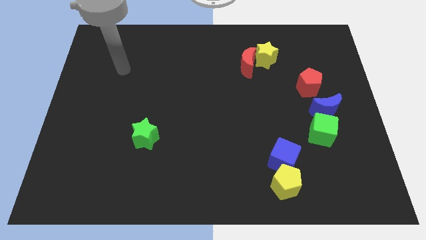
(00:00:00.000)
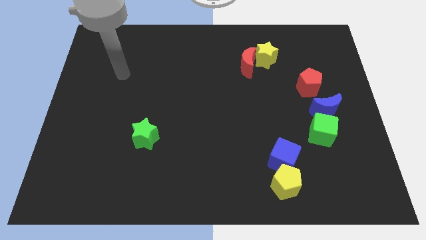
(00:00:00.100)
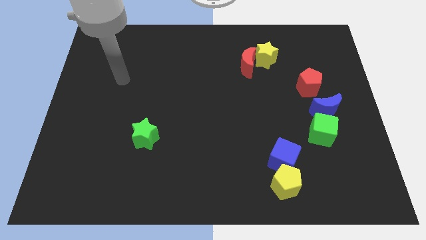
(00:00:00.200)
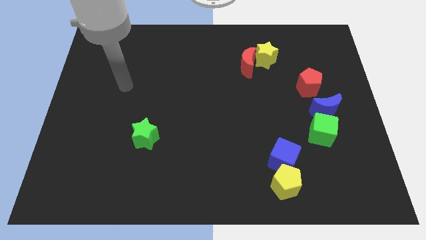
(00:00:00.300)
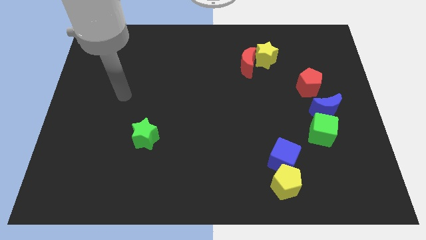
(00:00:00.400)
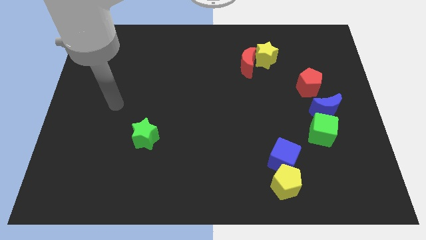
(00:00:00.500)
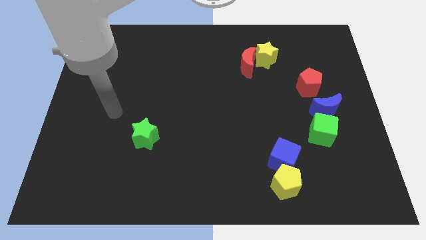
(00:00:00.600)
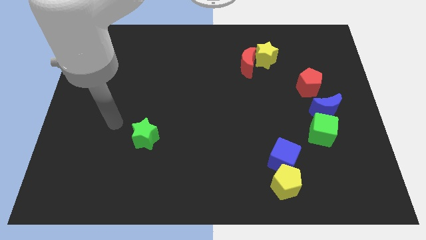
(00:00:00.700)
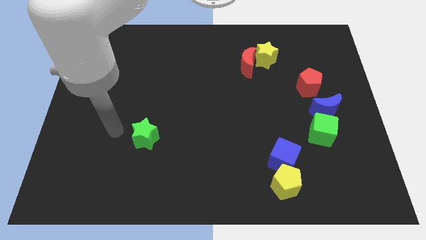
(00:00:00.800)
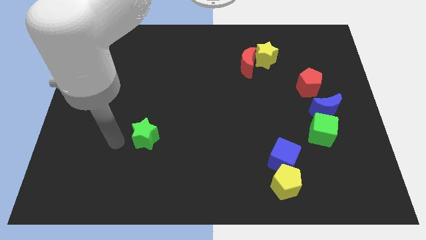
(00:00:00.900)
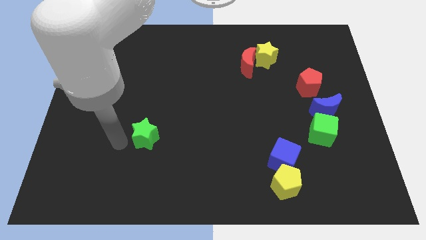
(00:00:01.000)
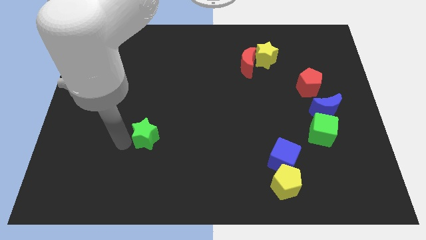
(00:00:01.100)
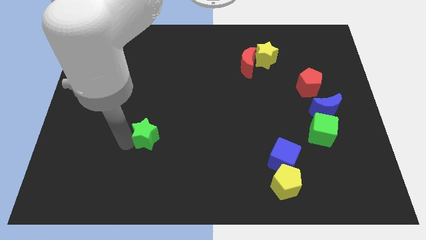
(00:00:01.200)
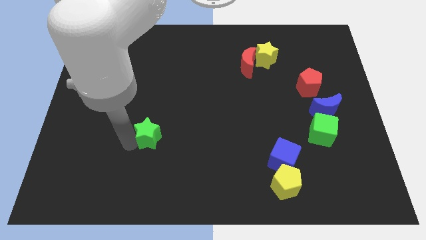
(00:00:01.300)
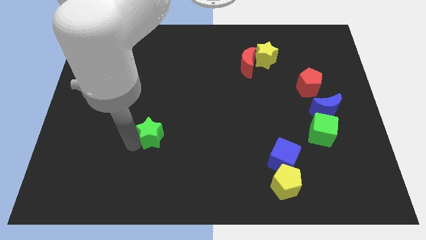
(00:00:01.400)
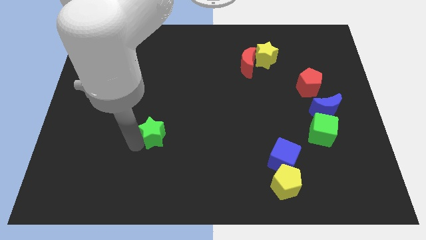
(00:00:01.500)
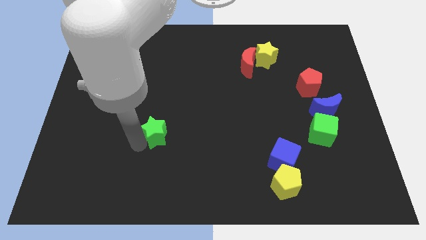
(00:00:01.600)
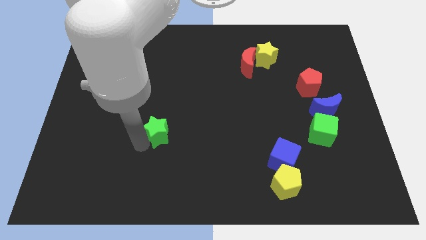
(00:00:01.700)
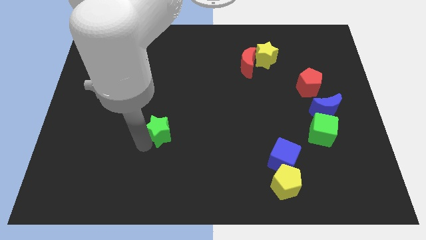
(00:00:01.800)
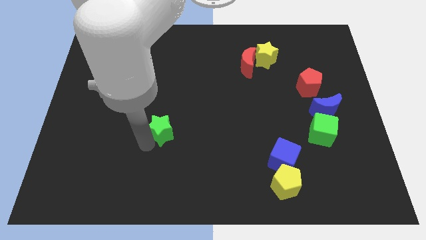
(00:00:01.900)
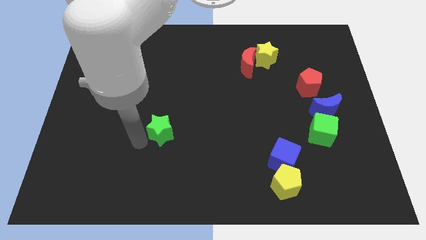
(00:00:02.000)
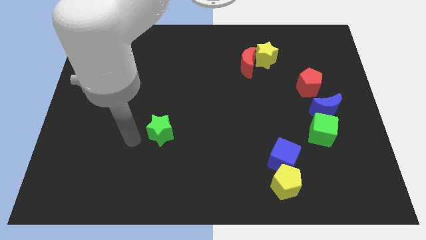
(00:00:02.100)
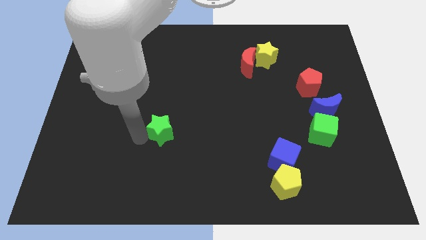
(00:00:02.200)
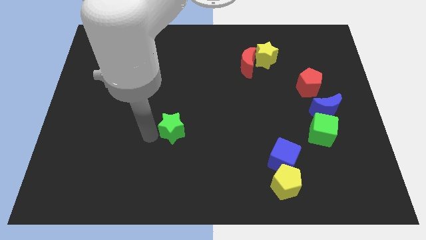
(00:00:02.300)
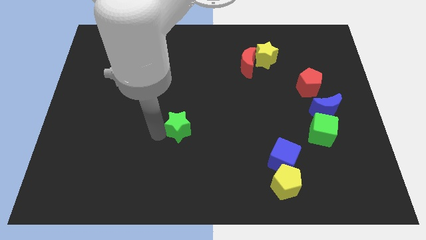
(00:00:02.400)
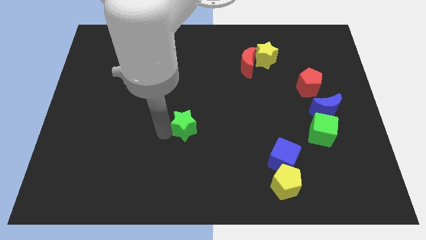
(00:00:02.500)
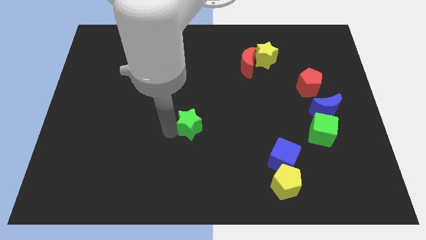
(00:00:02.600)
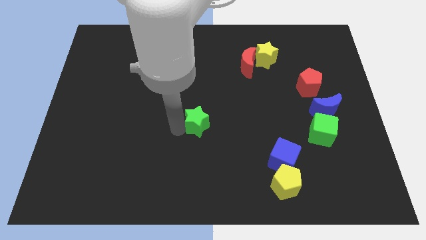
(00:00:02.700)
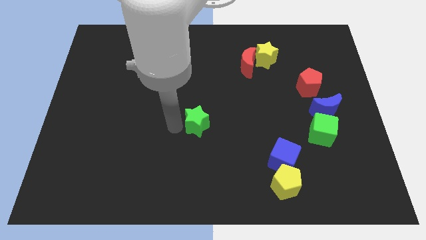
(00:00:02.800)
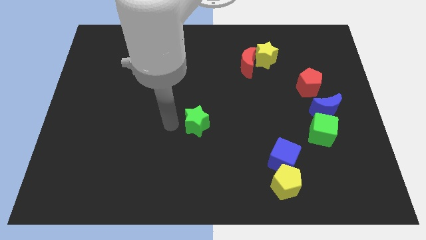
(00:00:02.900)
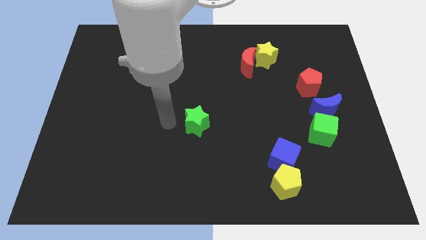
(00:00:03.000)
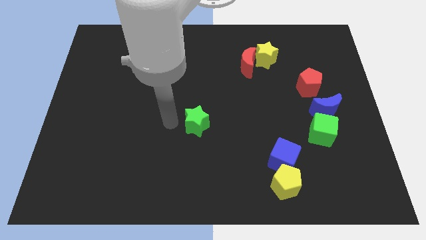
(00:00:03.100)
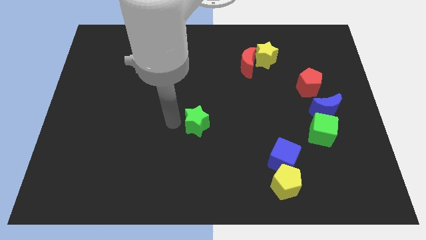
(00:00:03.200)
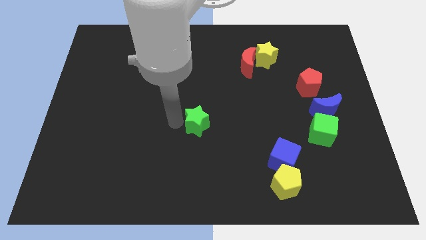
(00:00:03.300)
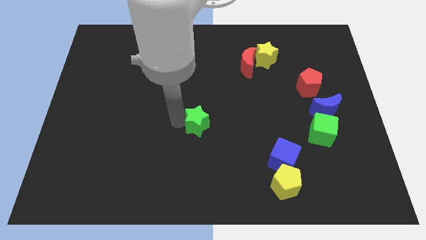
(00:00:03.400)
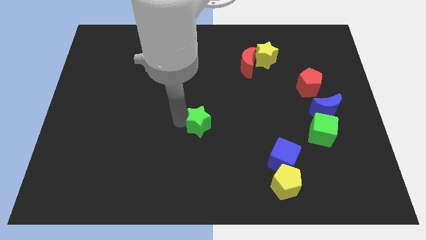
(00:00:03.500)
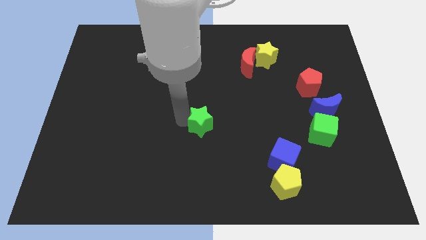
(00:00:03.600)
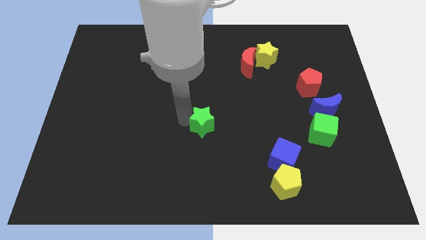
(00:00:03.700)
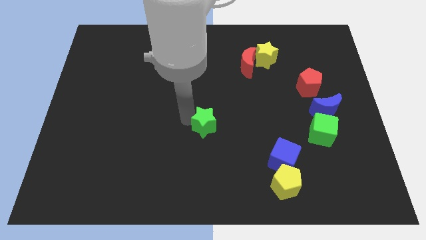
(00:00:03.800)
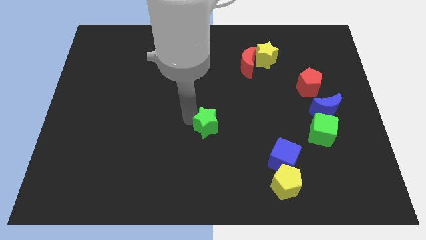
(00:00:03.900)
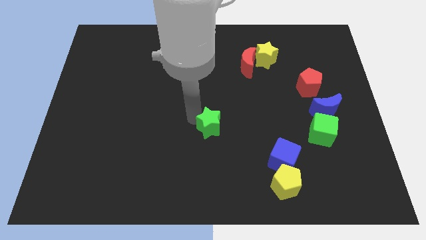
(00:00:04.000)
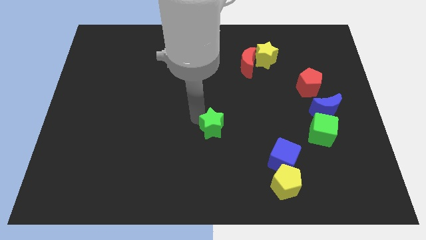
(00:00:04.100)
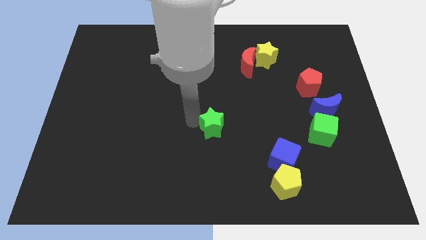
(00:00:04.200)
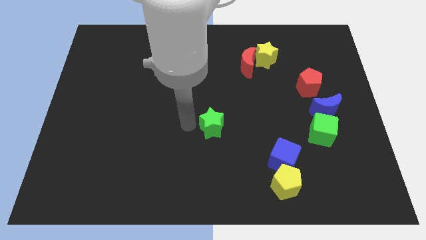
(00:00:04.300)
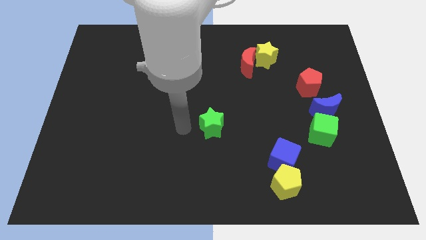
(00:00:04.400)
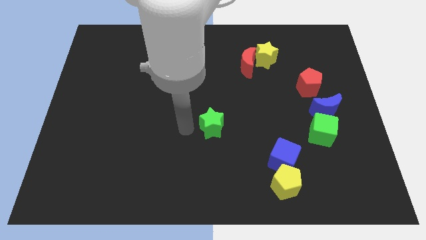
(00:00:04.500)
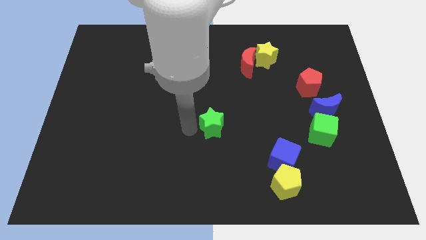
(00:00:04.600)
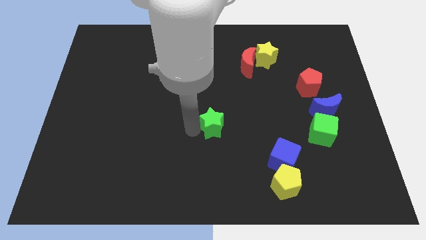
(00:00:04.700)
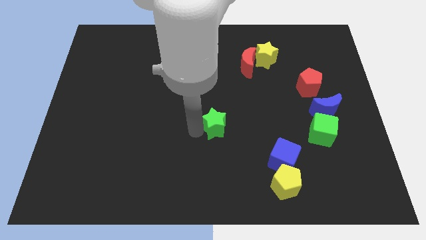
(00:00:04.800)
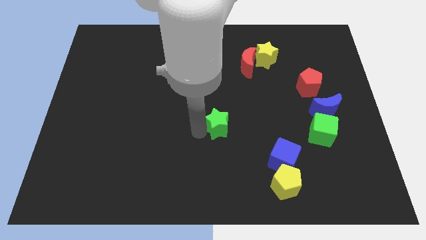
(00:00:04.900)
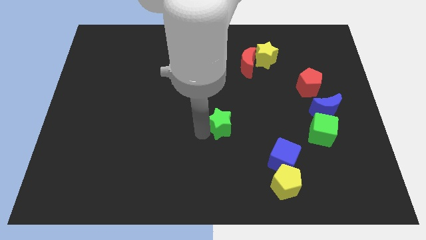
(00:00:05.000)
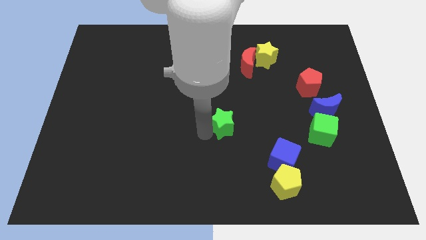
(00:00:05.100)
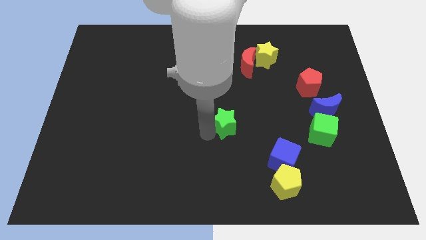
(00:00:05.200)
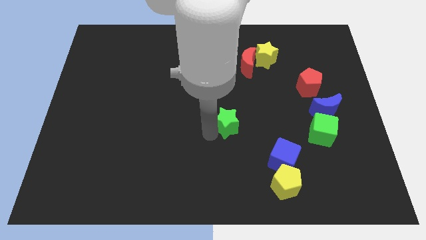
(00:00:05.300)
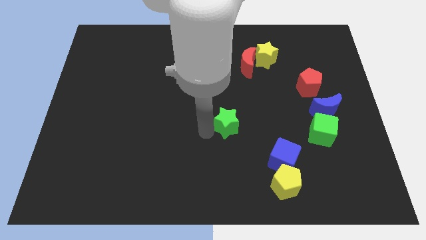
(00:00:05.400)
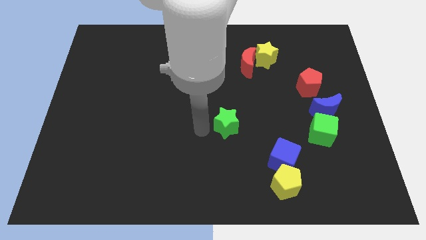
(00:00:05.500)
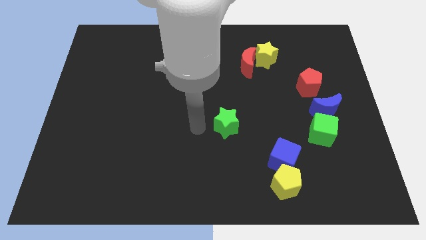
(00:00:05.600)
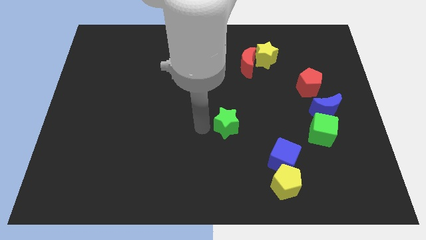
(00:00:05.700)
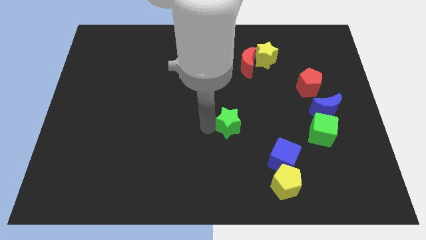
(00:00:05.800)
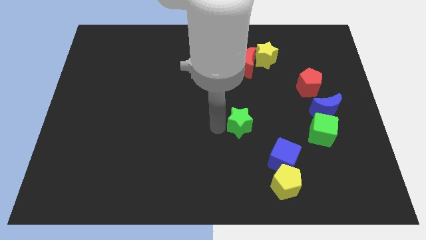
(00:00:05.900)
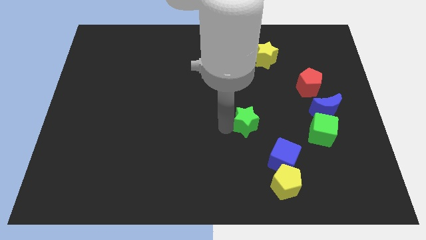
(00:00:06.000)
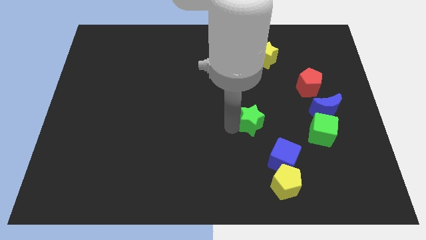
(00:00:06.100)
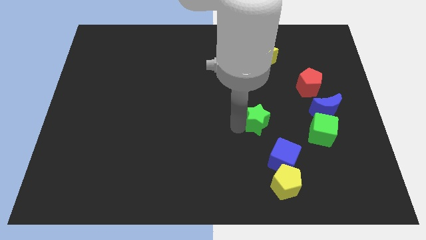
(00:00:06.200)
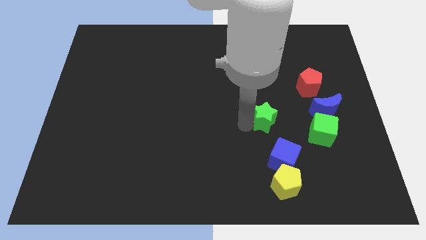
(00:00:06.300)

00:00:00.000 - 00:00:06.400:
put the green star to the top side of the blue cube

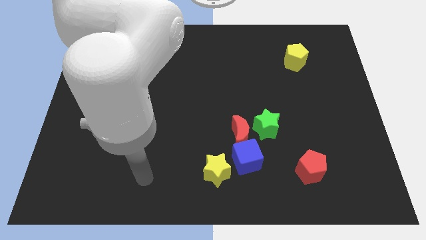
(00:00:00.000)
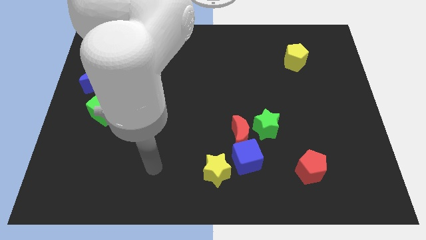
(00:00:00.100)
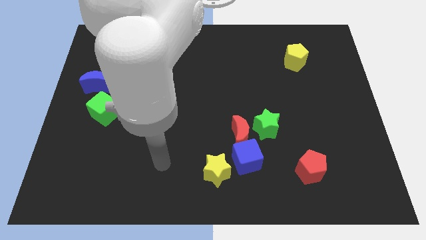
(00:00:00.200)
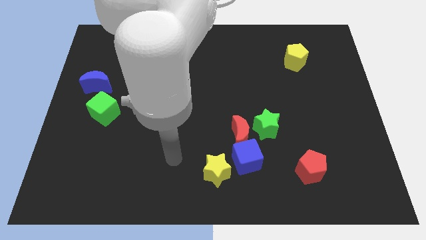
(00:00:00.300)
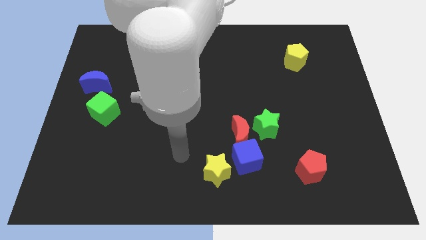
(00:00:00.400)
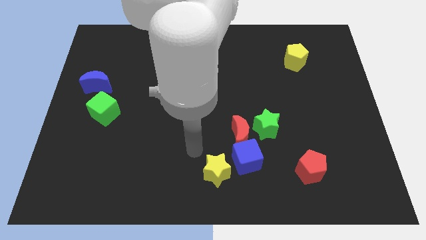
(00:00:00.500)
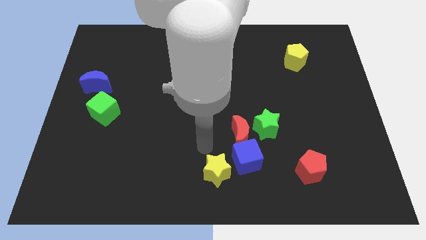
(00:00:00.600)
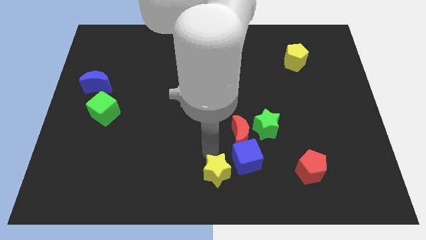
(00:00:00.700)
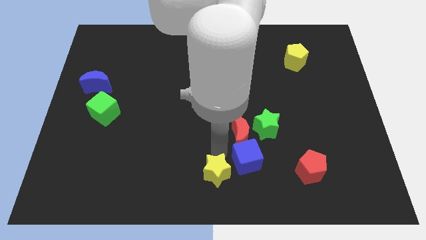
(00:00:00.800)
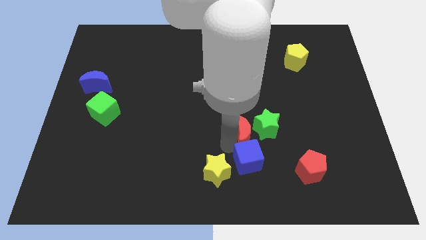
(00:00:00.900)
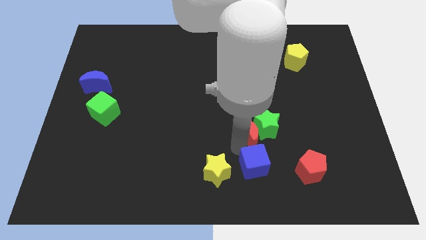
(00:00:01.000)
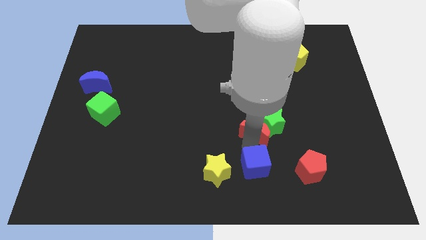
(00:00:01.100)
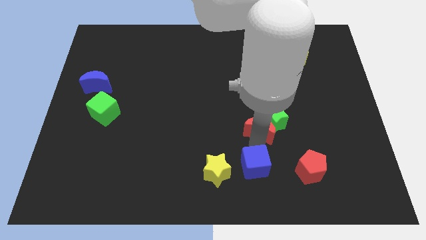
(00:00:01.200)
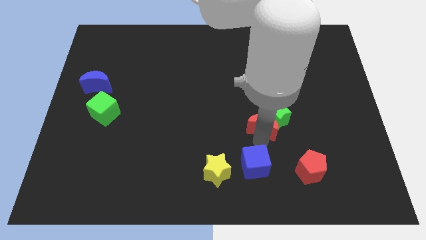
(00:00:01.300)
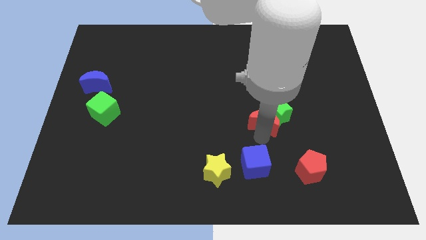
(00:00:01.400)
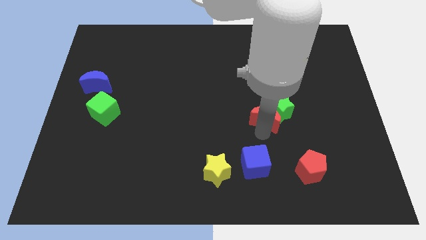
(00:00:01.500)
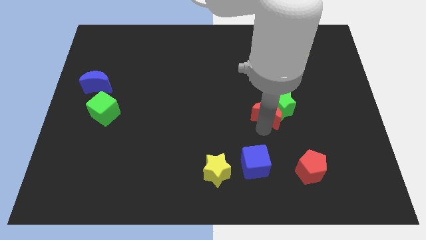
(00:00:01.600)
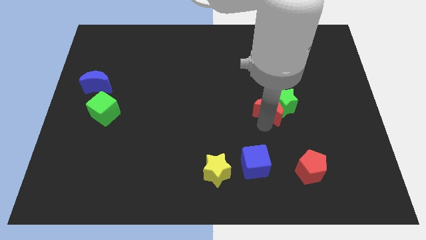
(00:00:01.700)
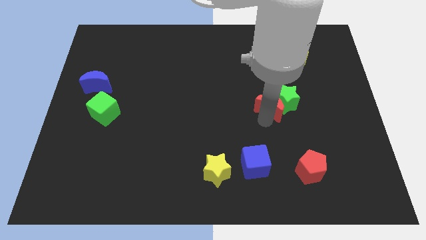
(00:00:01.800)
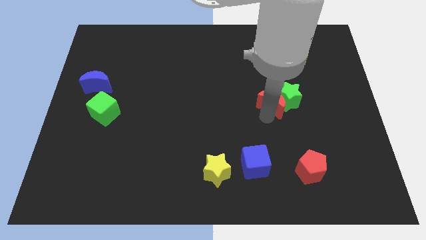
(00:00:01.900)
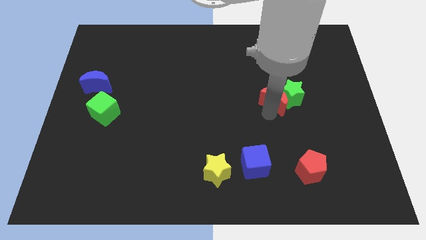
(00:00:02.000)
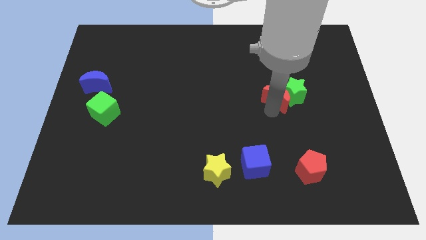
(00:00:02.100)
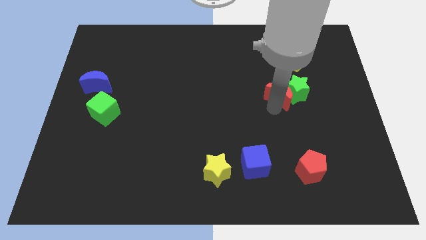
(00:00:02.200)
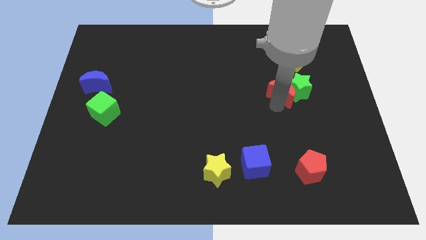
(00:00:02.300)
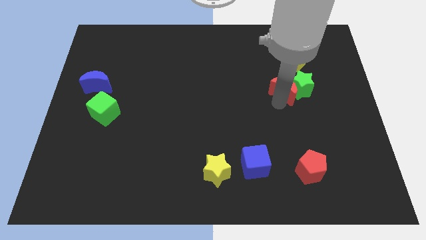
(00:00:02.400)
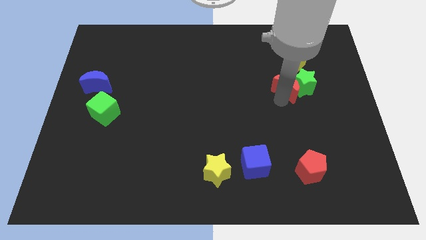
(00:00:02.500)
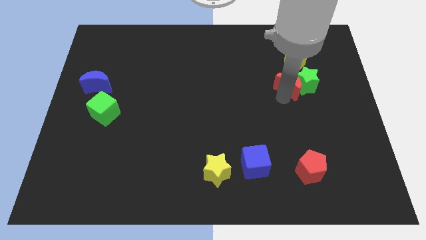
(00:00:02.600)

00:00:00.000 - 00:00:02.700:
push the green star to the bottom right of the yellow pentagon
